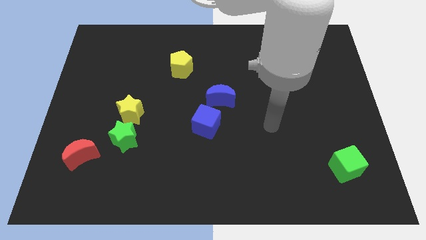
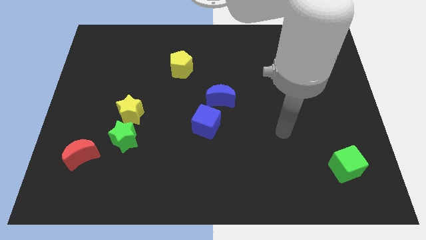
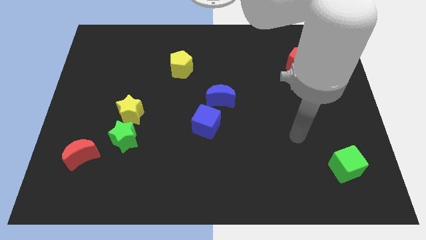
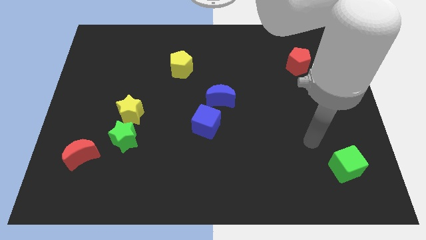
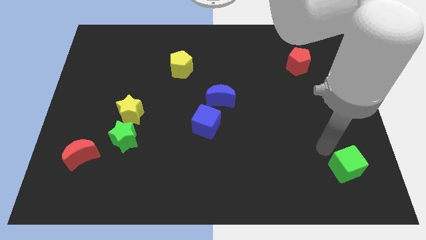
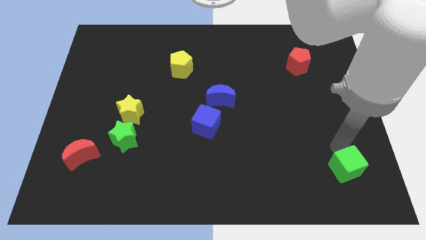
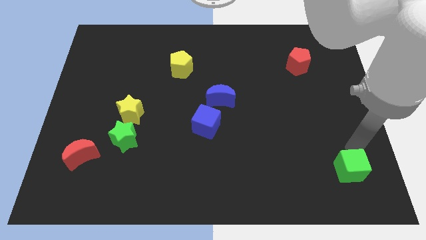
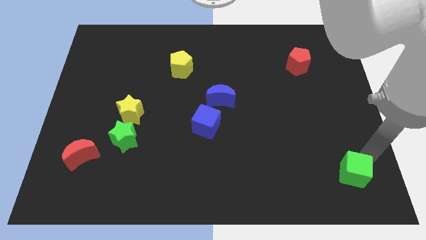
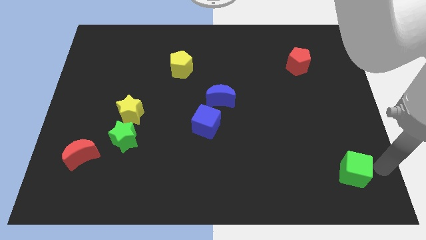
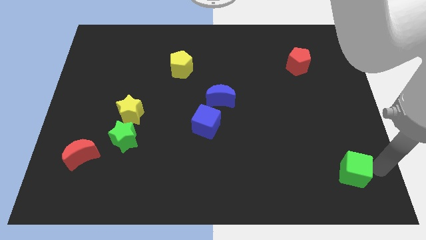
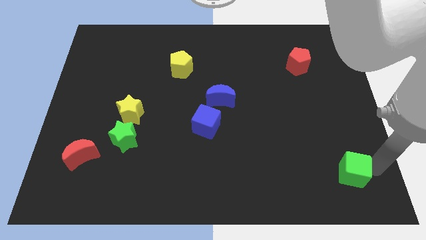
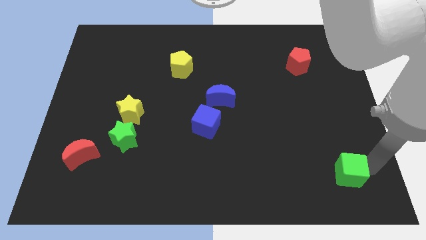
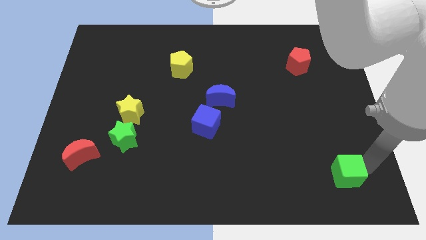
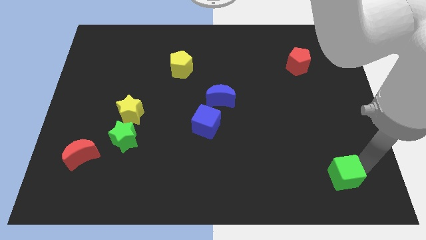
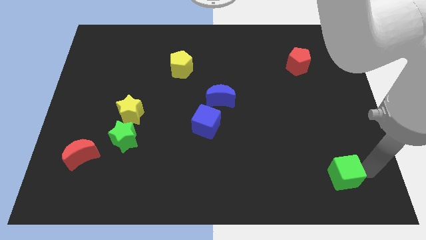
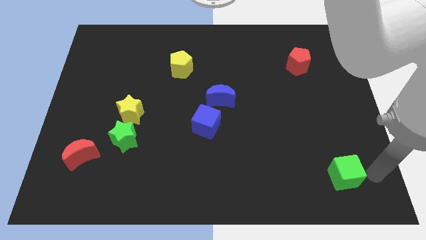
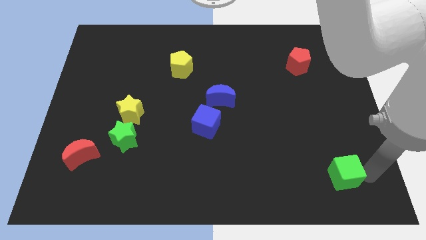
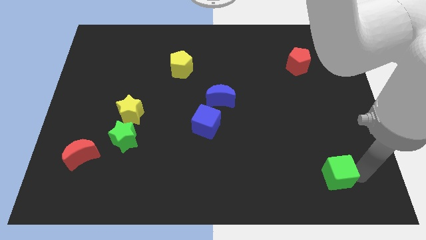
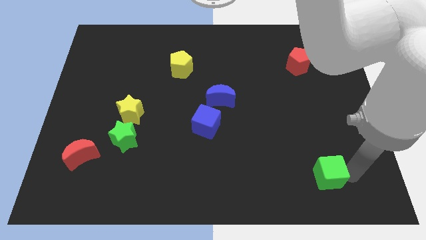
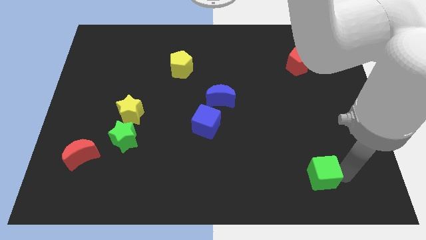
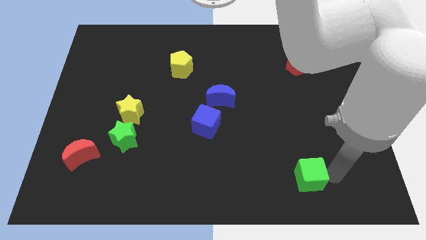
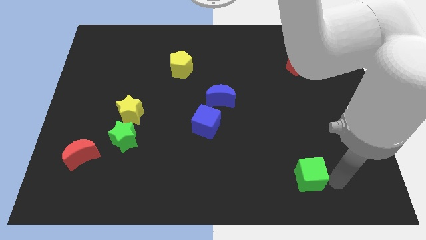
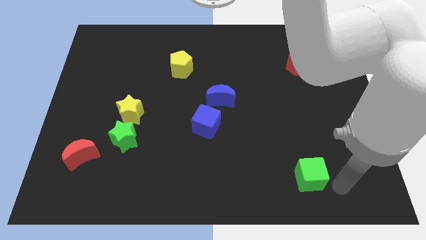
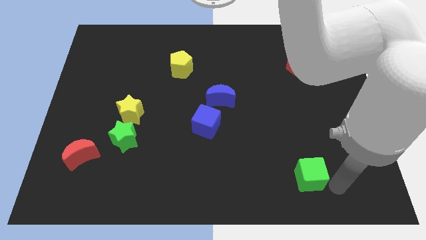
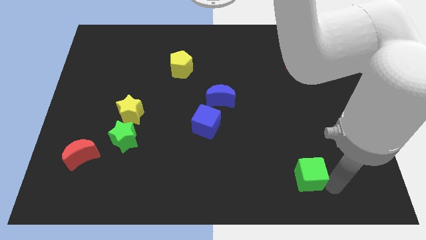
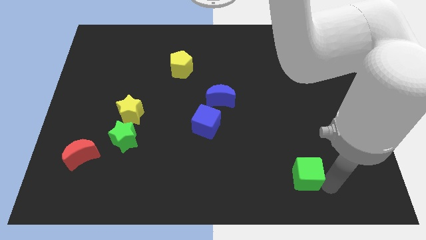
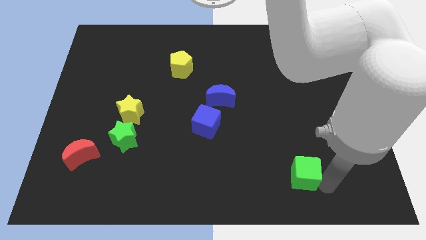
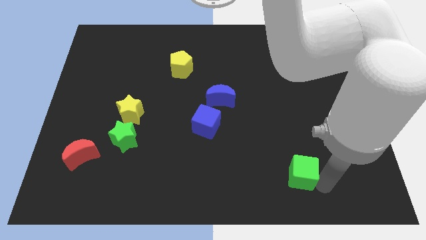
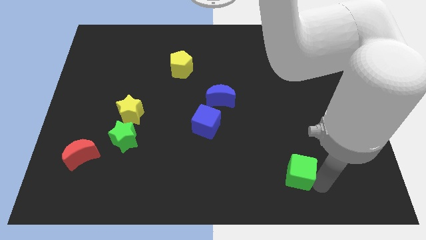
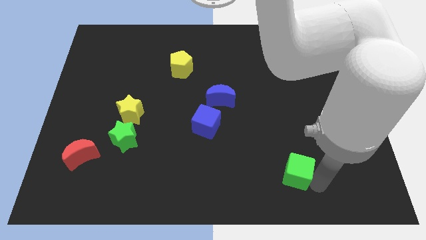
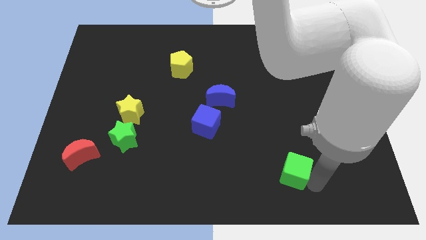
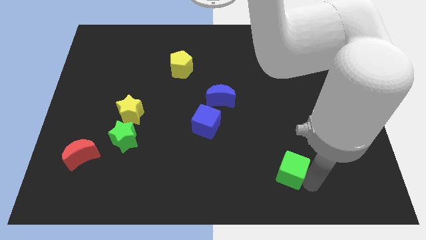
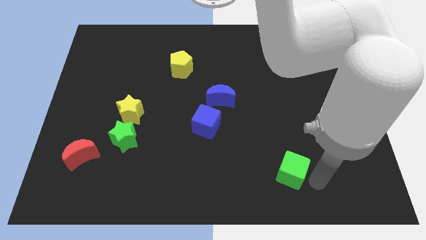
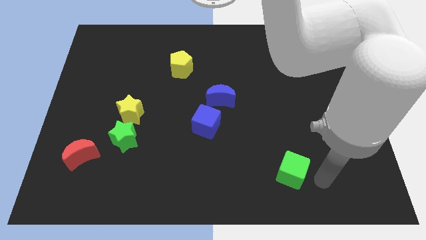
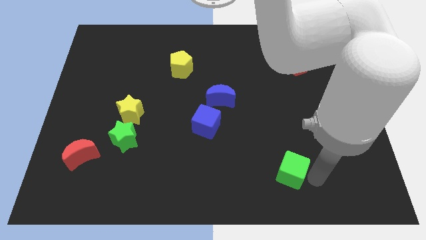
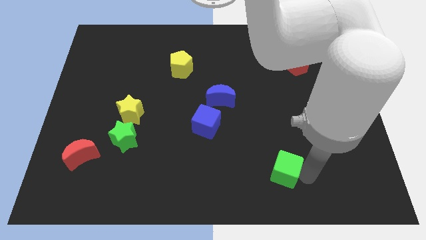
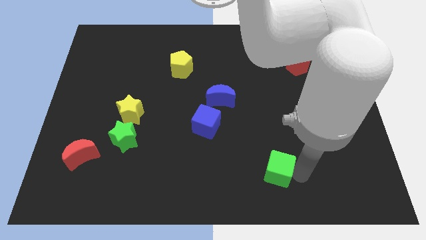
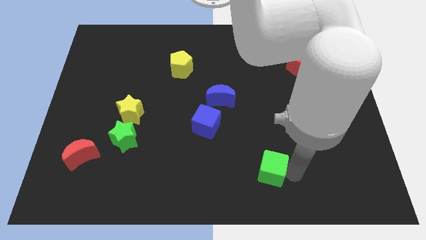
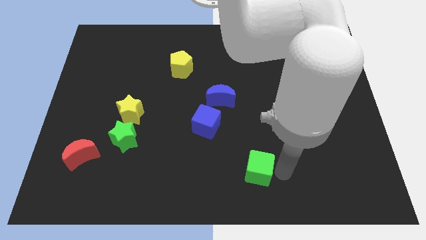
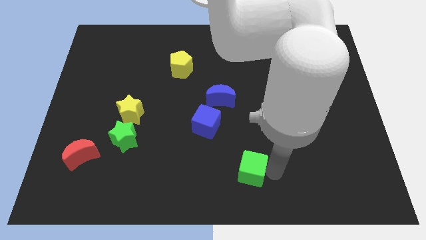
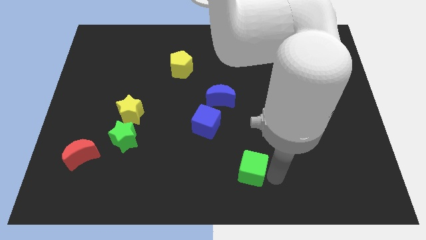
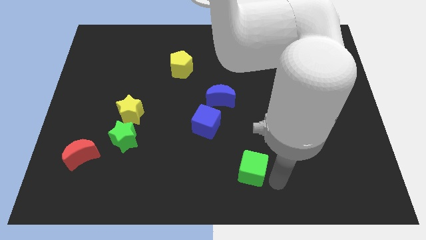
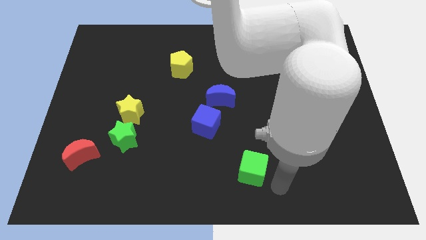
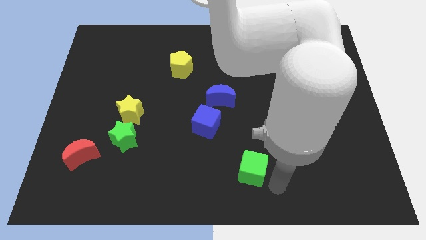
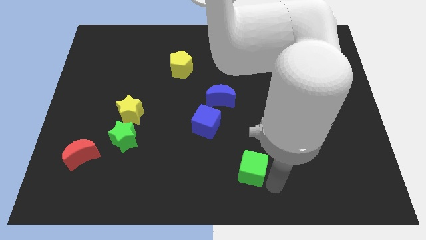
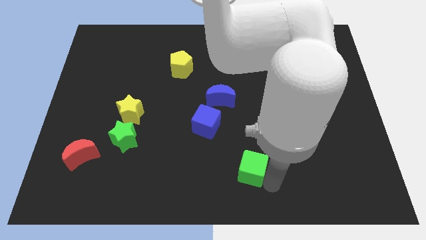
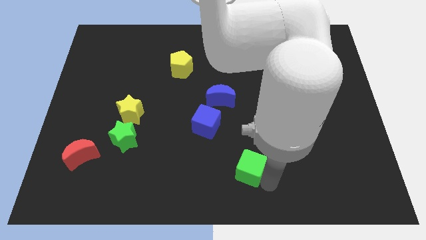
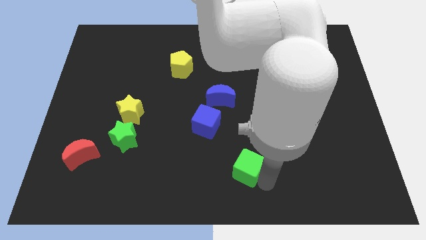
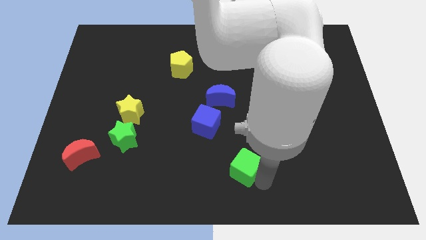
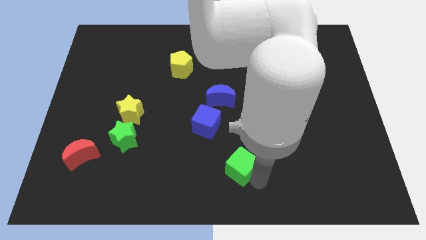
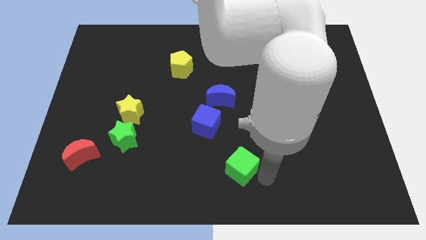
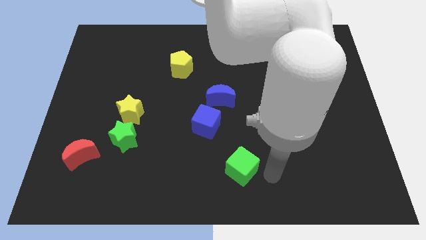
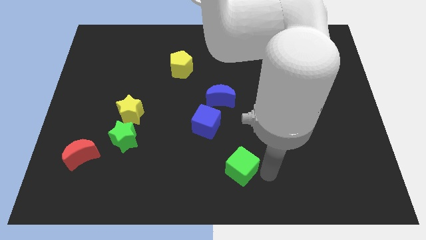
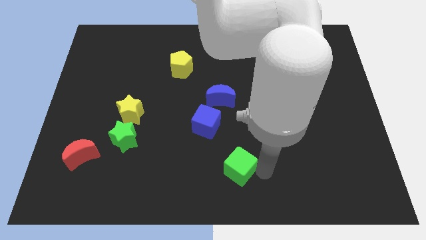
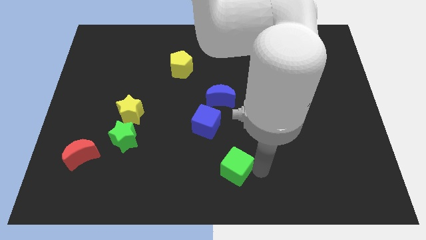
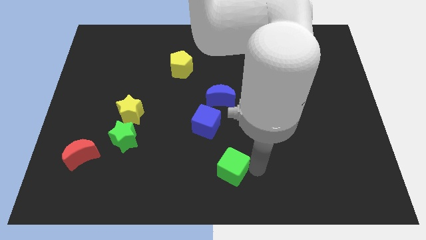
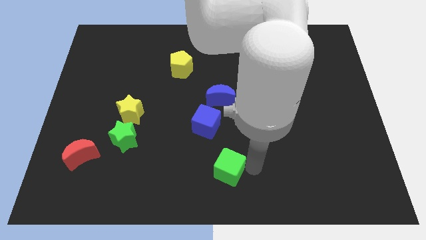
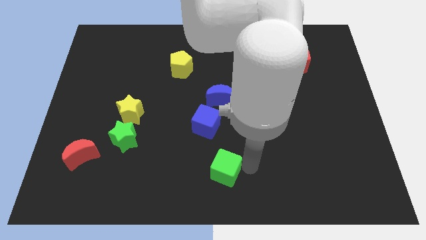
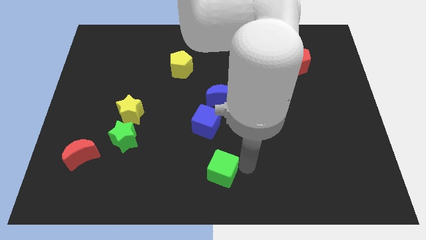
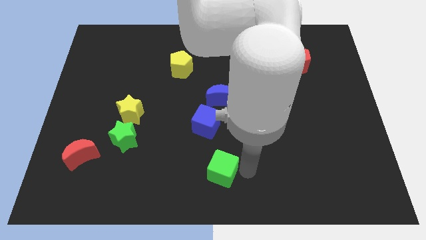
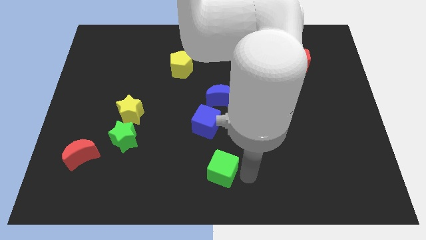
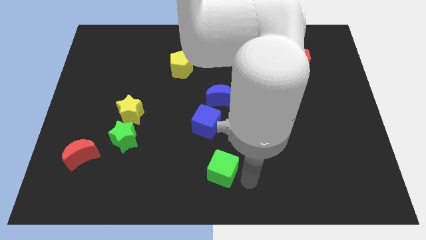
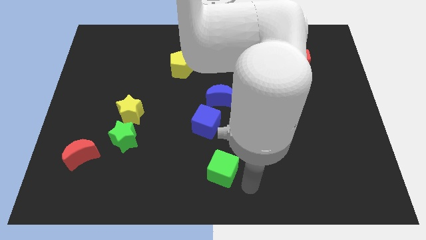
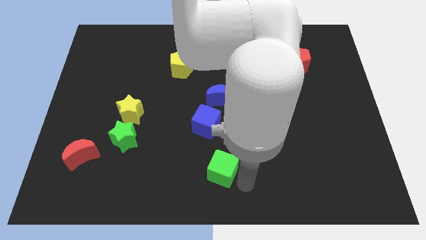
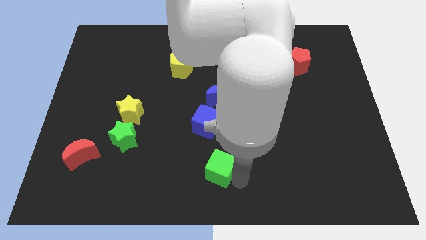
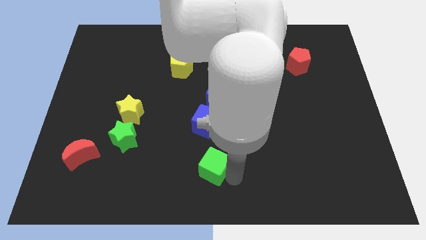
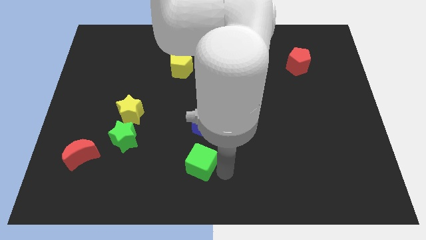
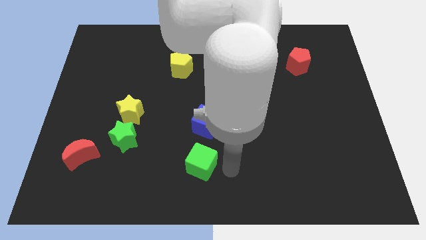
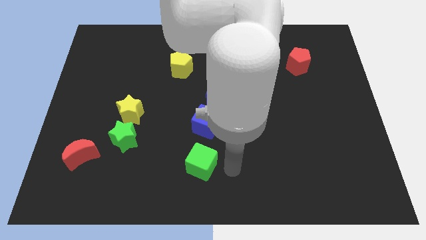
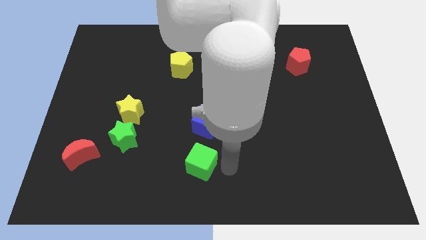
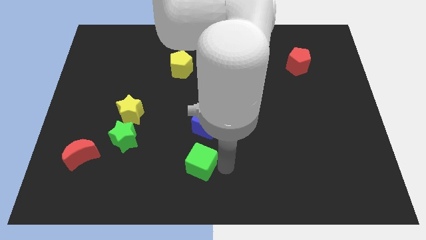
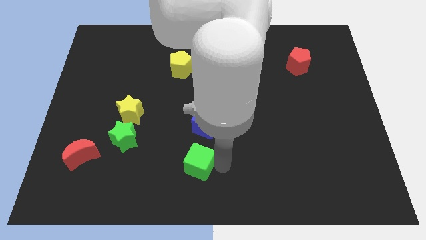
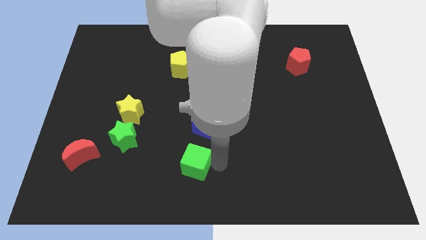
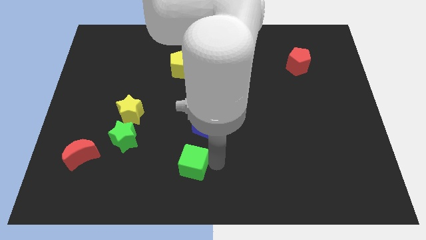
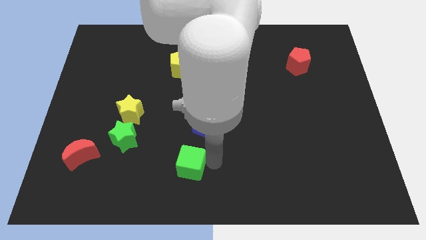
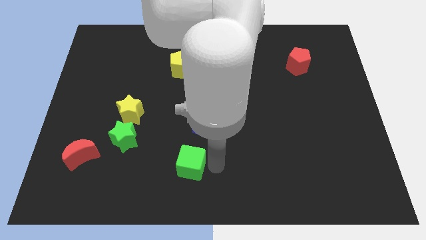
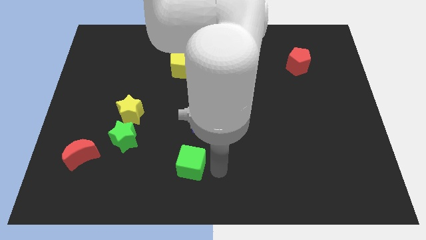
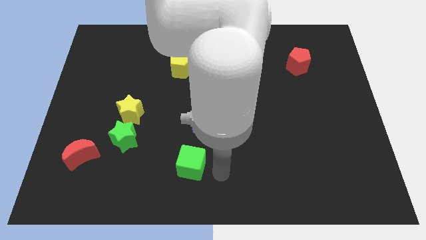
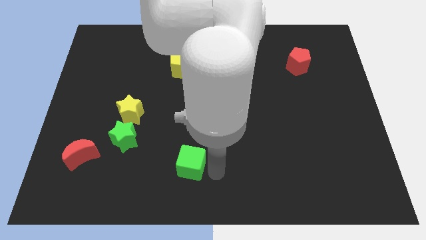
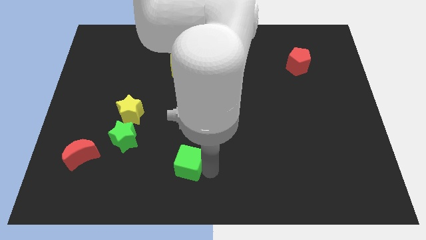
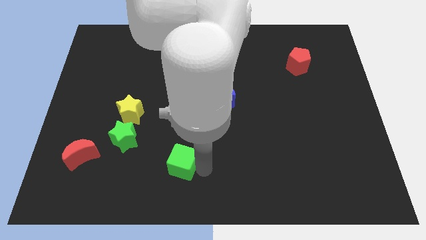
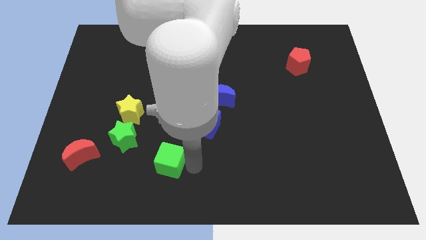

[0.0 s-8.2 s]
move the green cube to the bottom right of the green star
